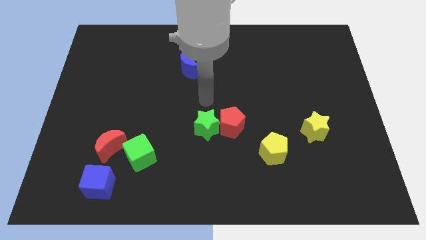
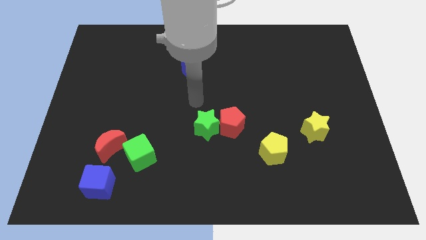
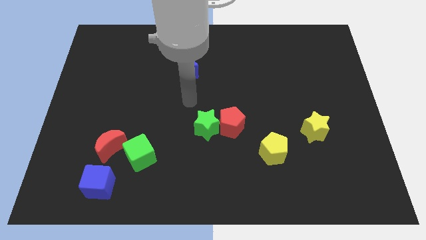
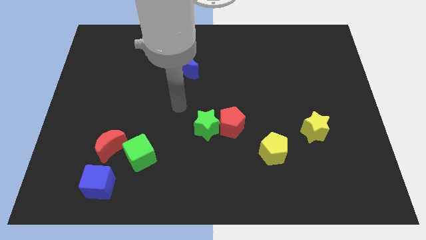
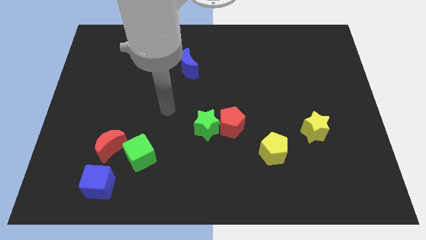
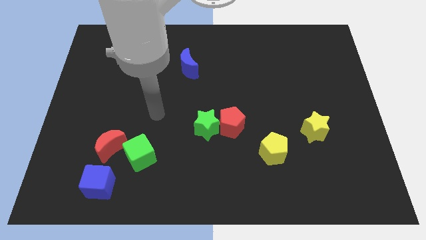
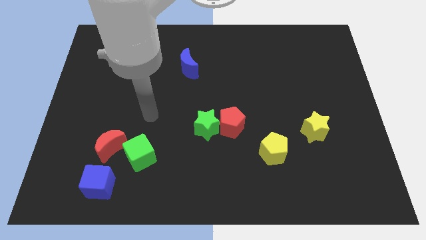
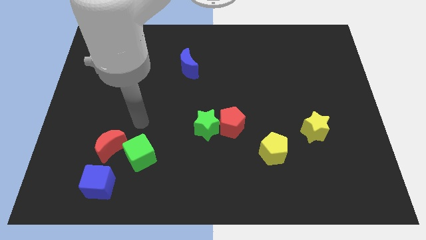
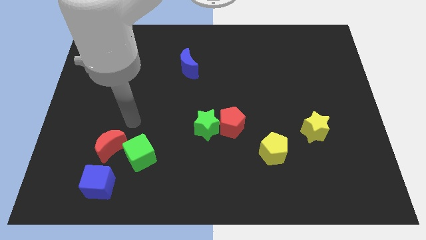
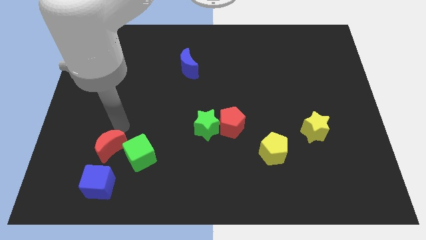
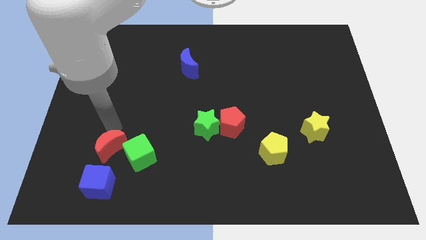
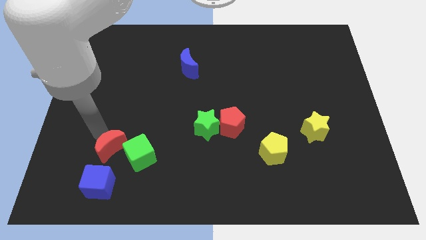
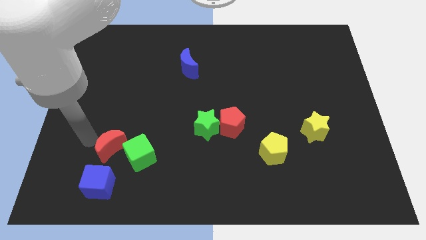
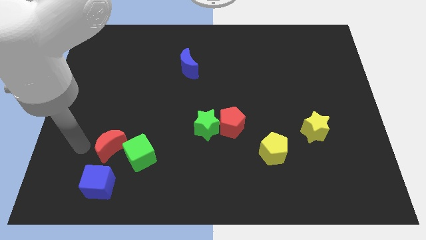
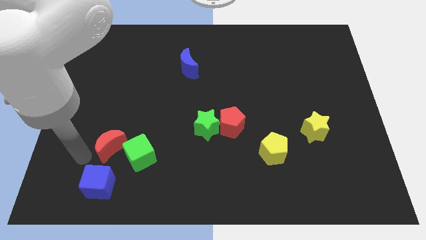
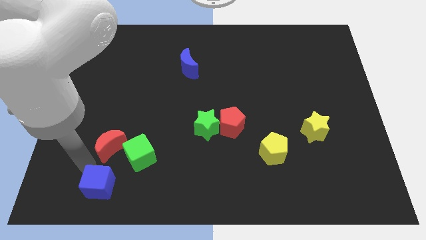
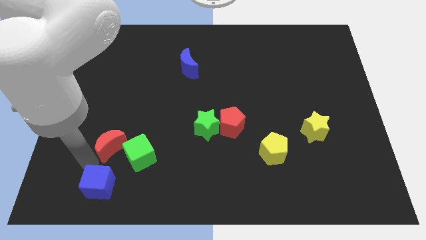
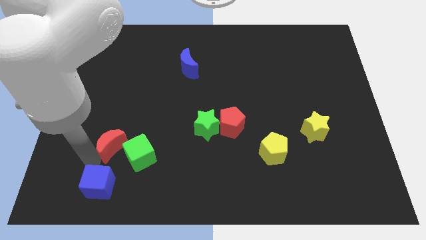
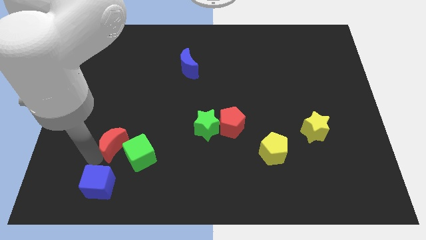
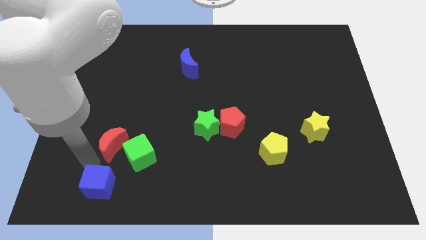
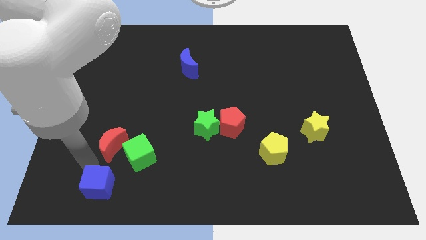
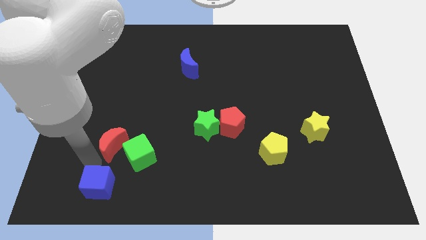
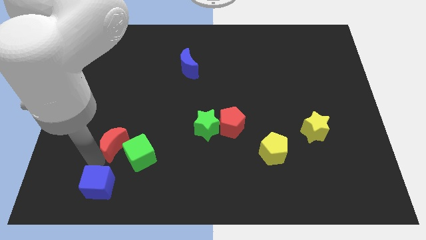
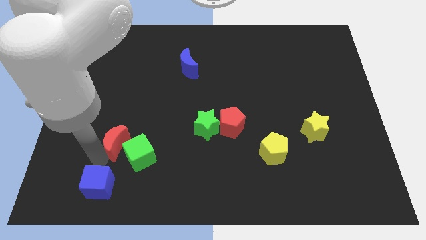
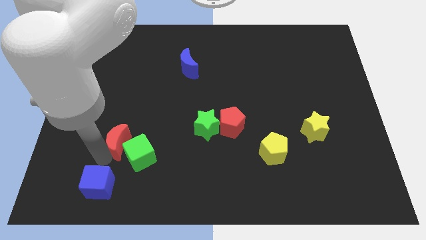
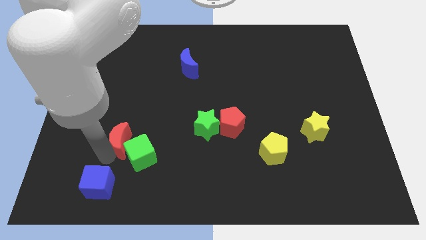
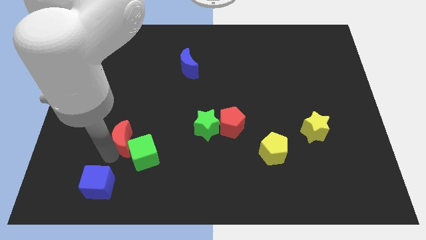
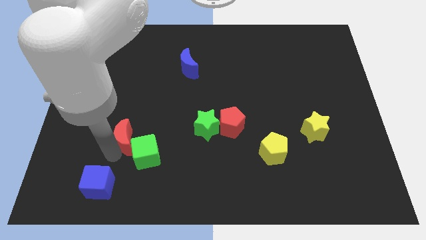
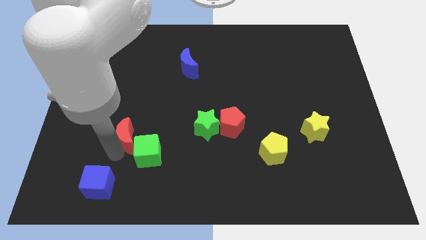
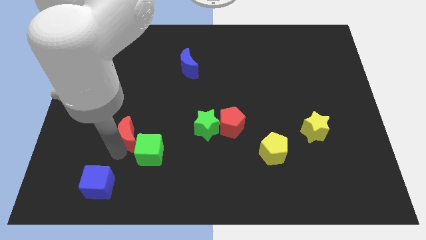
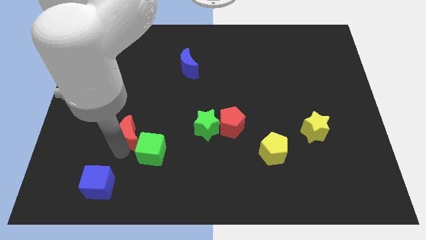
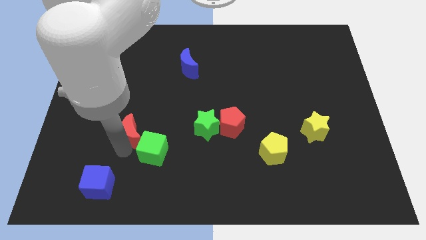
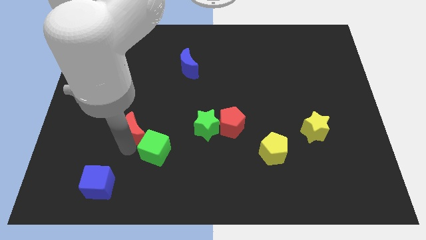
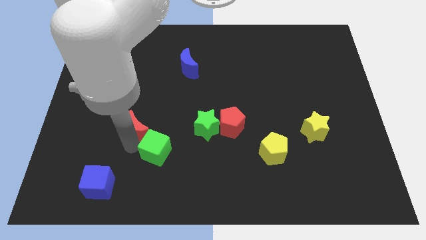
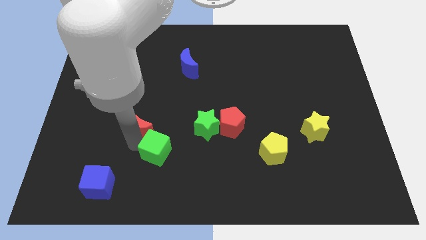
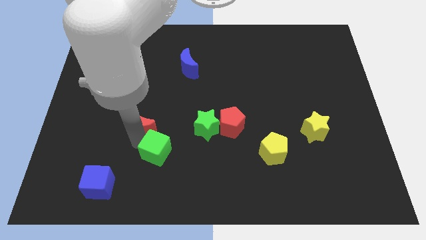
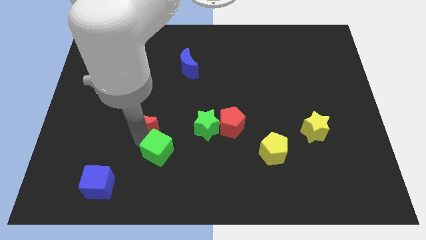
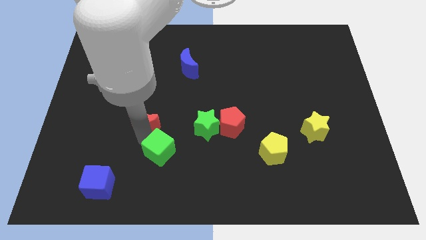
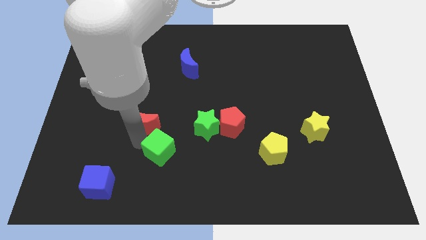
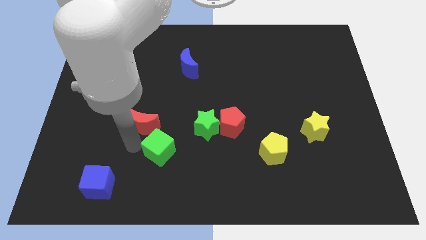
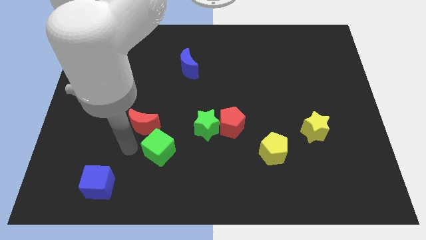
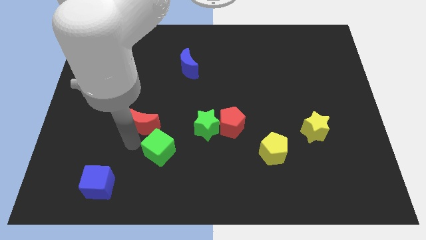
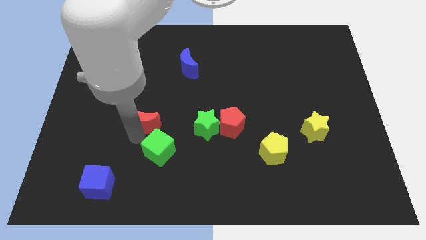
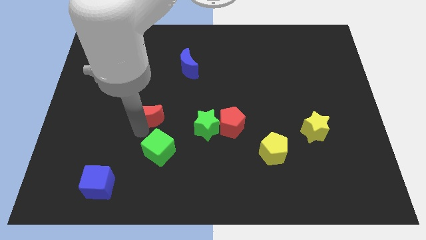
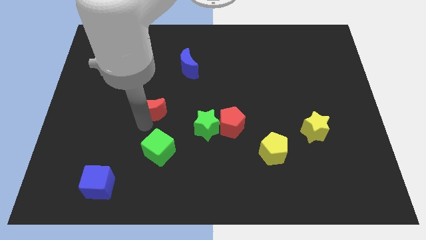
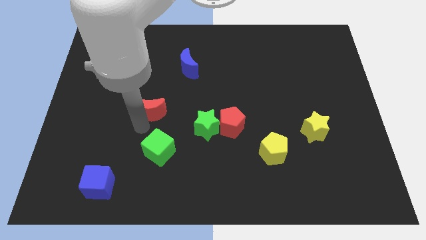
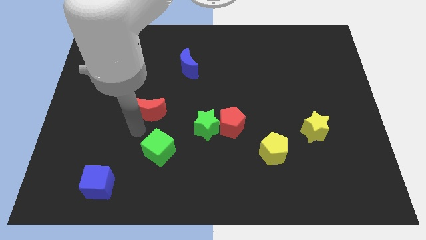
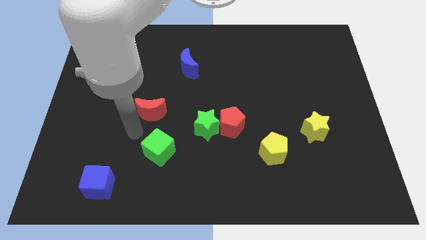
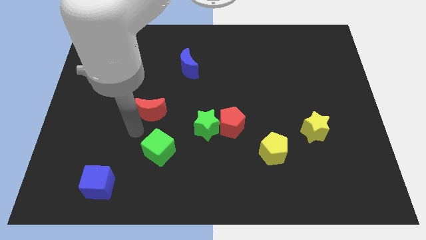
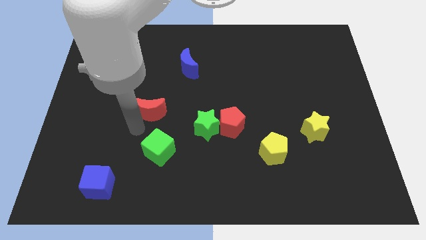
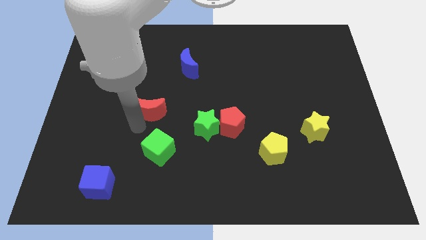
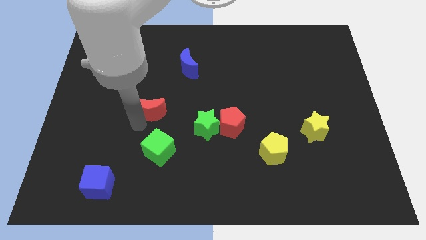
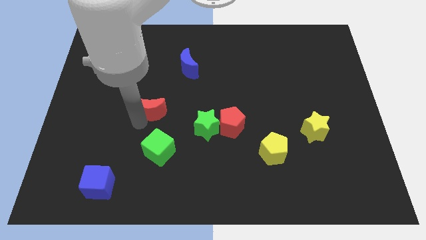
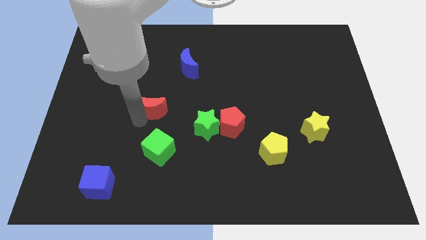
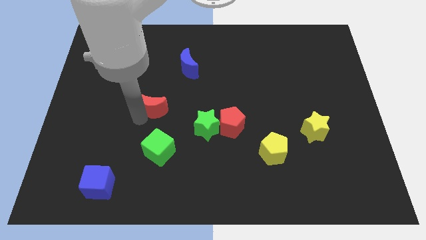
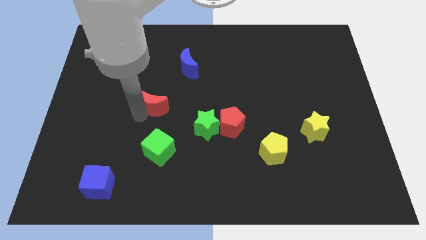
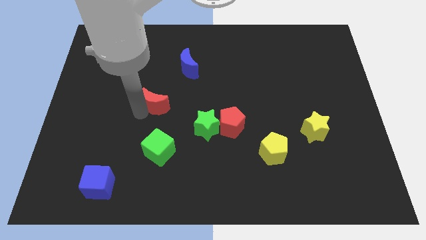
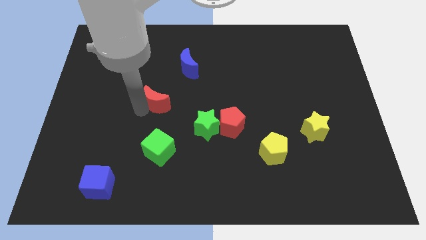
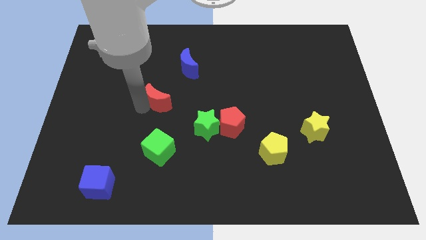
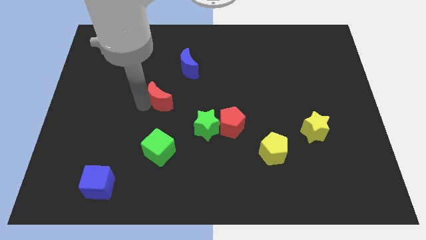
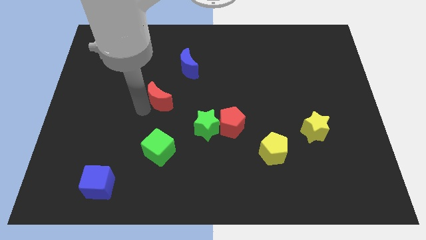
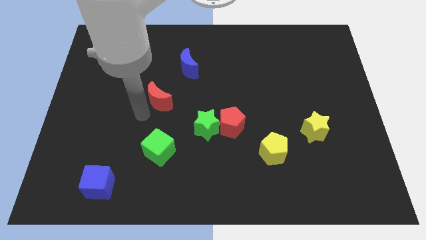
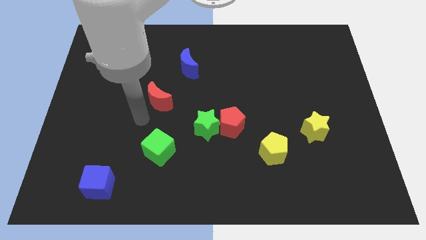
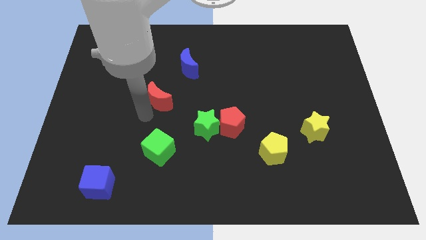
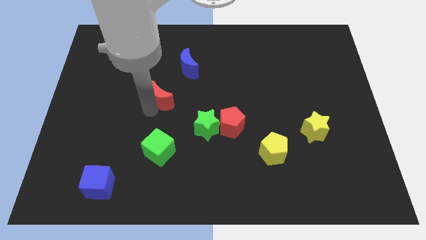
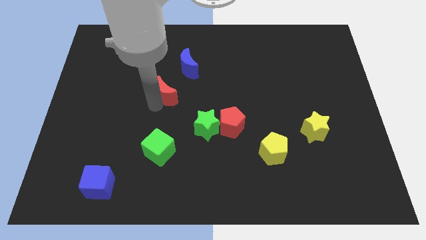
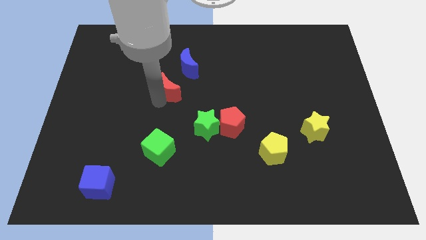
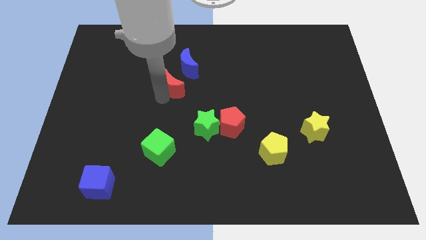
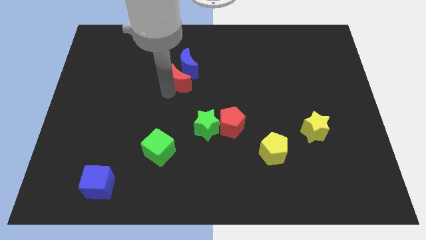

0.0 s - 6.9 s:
put the red moon towards the blue moon

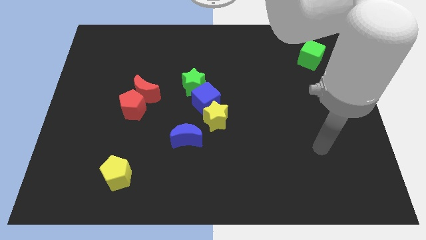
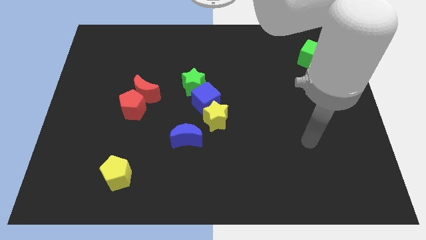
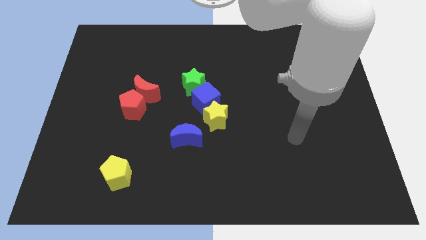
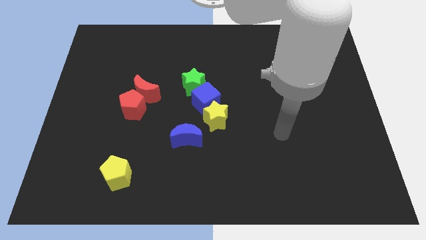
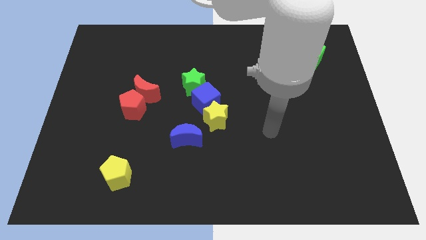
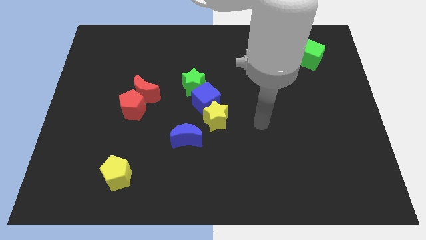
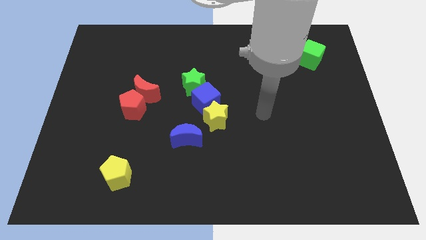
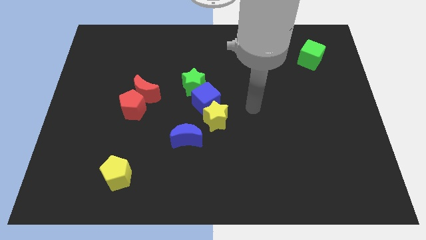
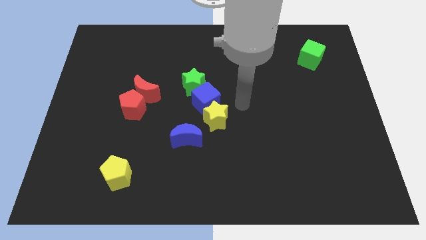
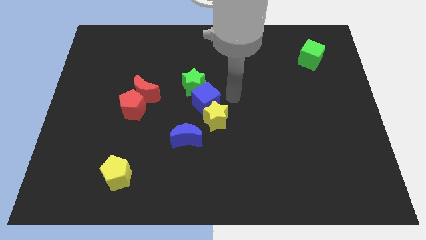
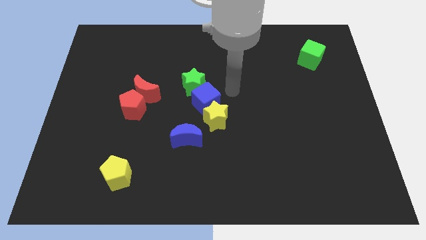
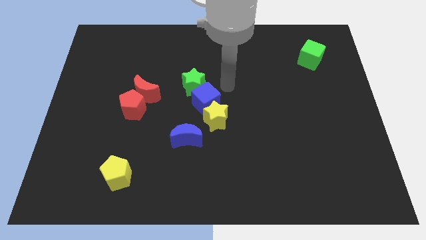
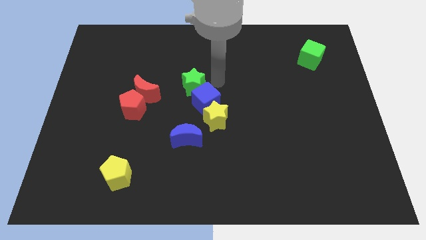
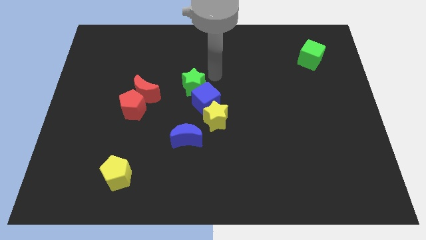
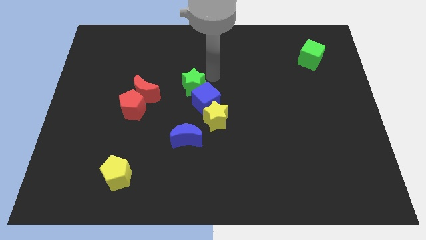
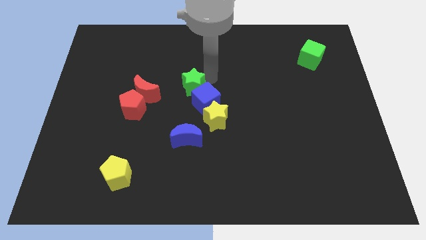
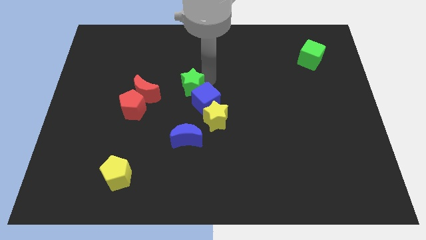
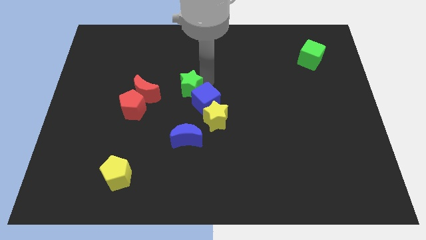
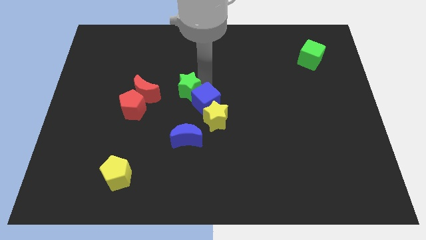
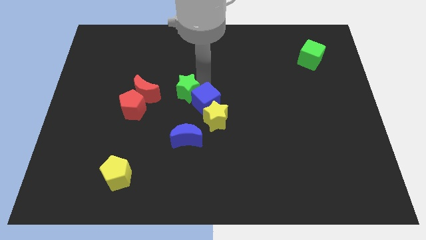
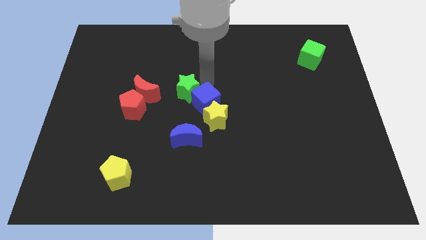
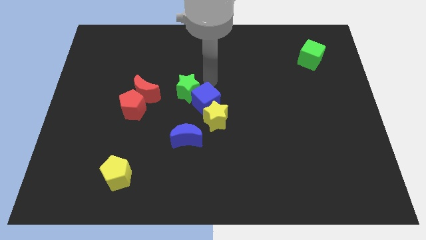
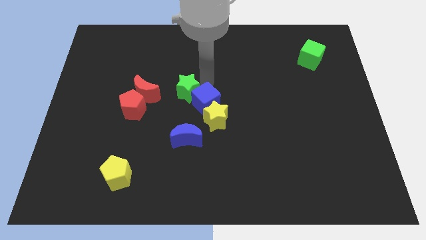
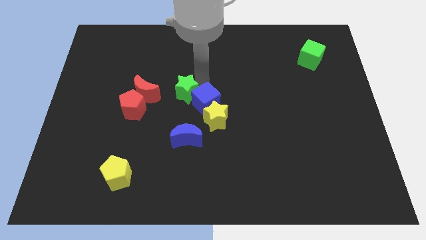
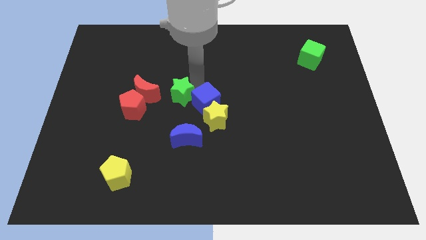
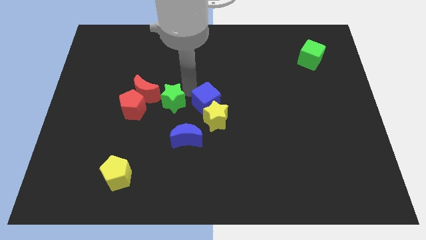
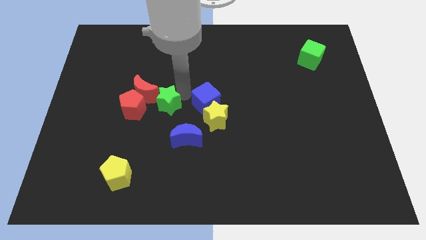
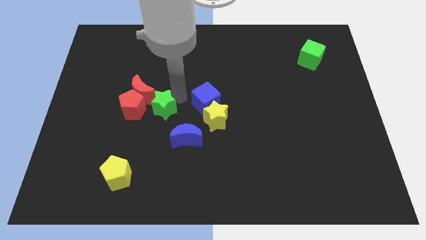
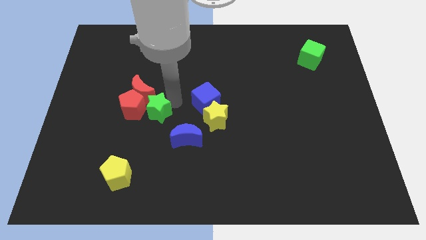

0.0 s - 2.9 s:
put the green star next to the red pentagon
